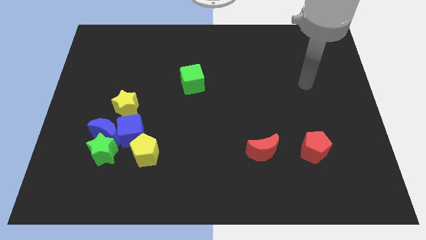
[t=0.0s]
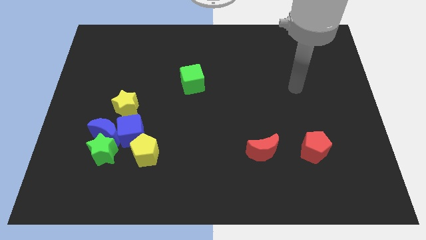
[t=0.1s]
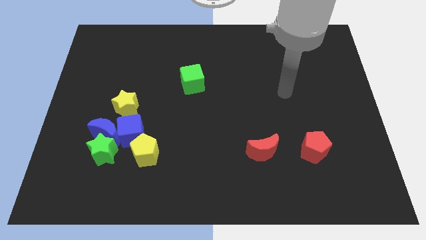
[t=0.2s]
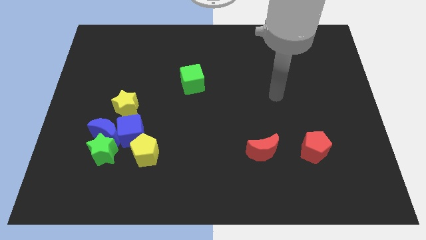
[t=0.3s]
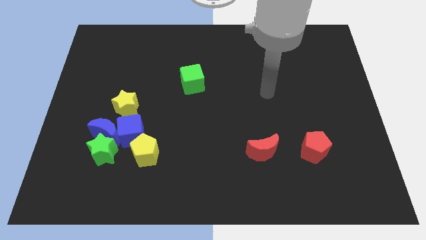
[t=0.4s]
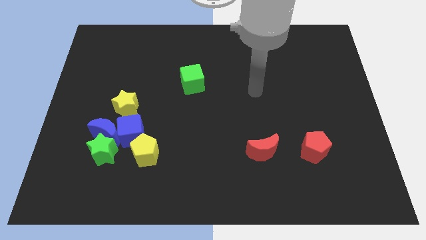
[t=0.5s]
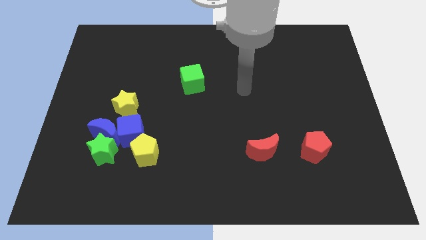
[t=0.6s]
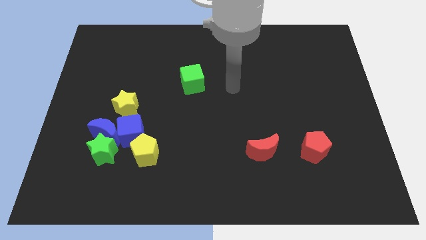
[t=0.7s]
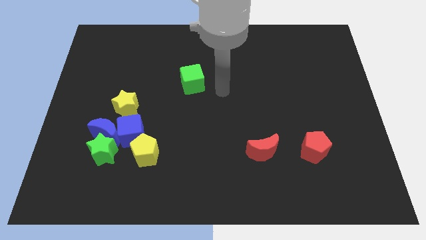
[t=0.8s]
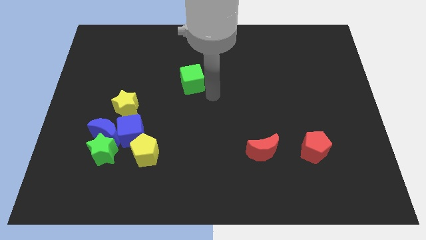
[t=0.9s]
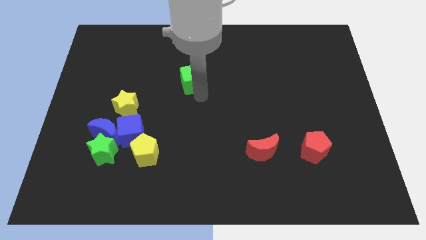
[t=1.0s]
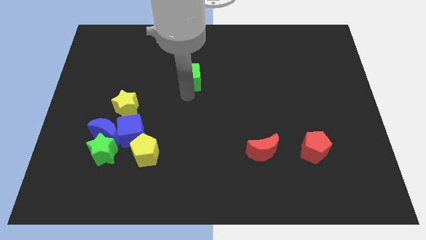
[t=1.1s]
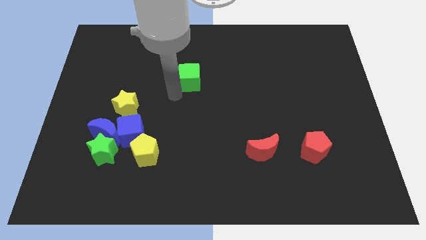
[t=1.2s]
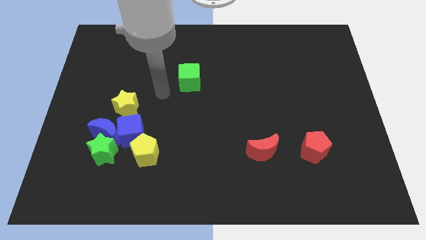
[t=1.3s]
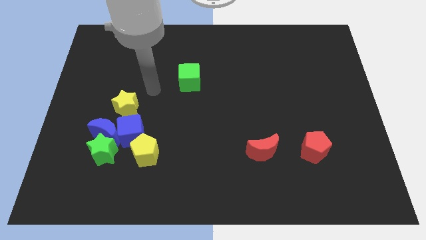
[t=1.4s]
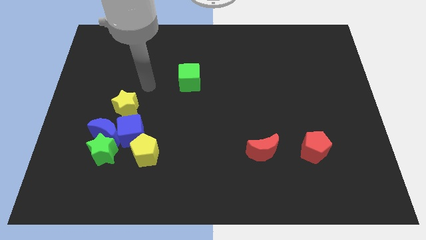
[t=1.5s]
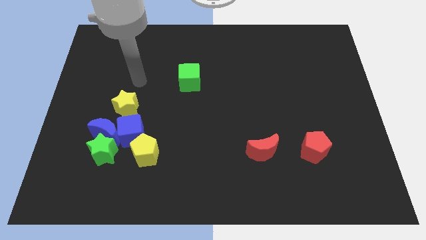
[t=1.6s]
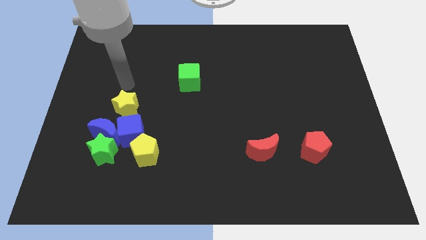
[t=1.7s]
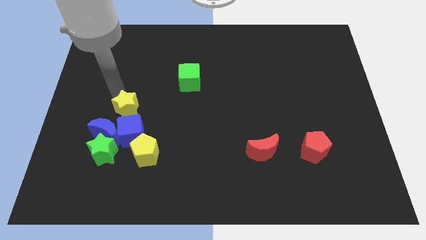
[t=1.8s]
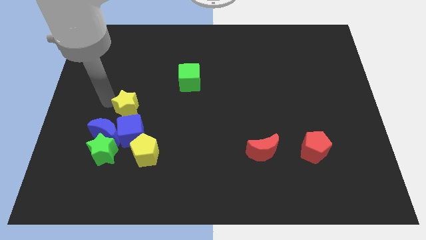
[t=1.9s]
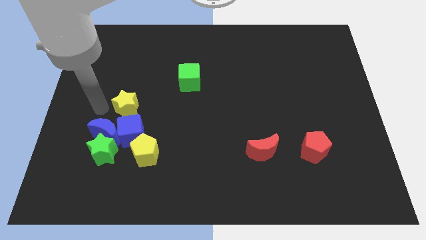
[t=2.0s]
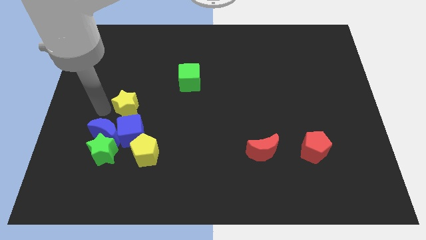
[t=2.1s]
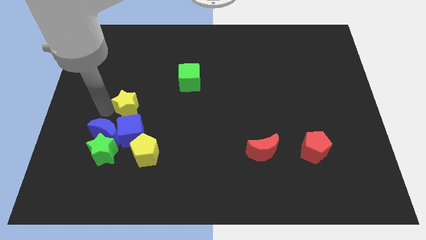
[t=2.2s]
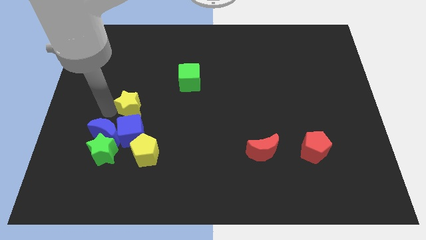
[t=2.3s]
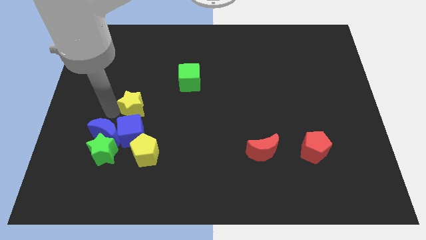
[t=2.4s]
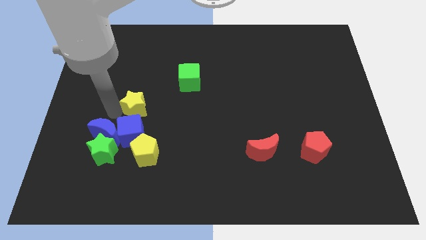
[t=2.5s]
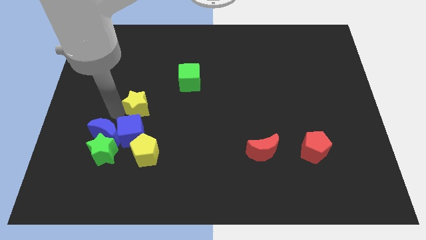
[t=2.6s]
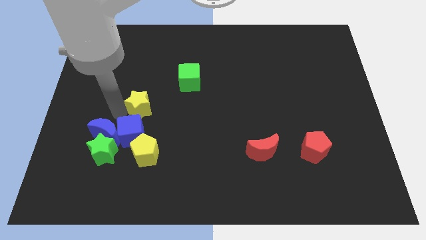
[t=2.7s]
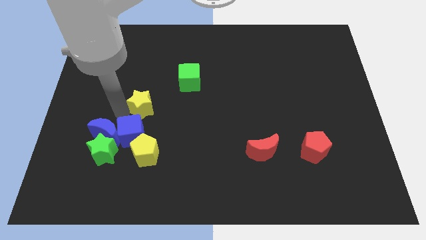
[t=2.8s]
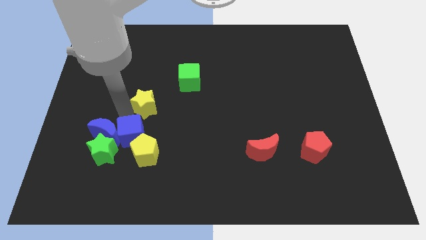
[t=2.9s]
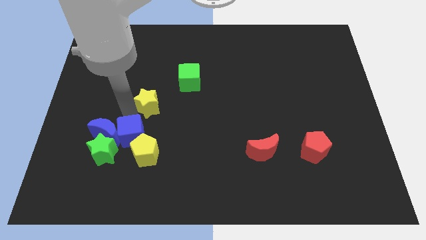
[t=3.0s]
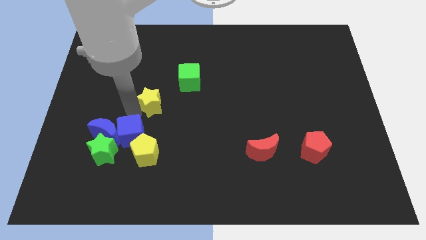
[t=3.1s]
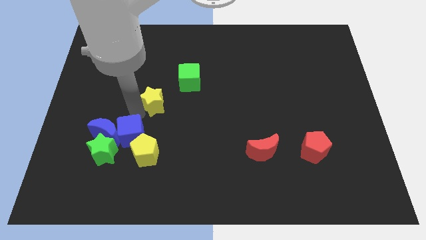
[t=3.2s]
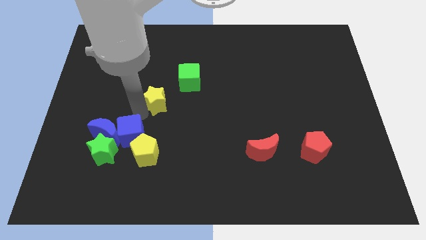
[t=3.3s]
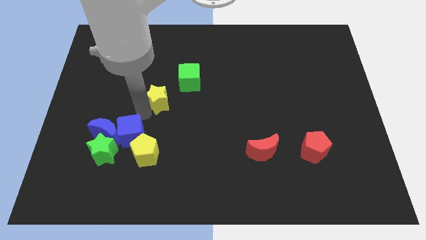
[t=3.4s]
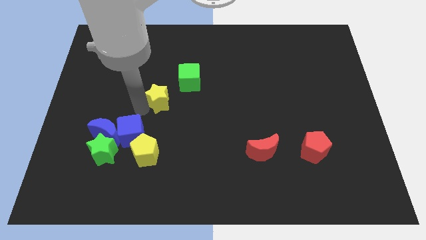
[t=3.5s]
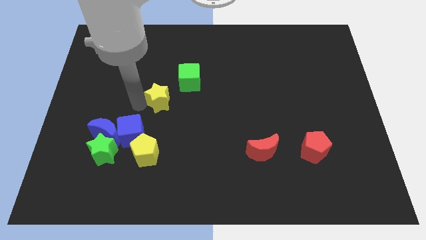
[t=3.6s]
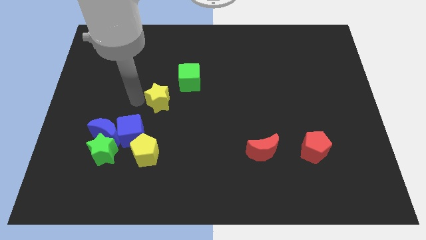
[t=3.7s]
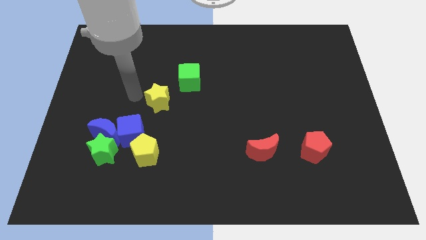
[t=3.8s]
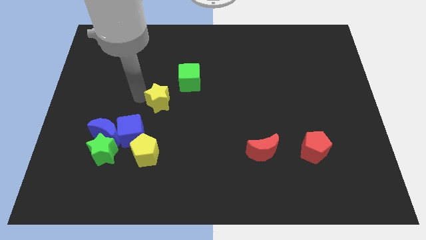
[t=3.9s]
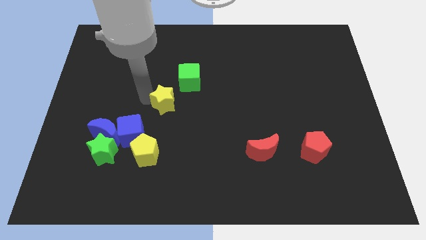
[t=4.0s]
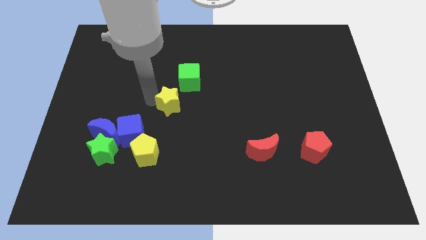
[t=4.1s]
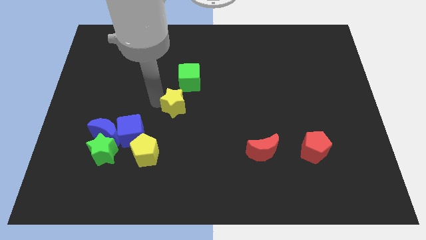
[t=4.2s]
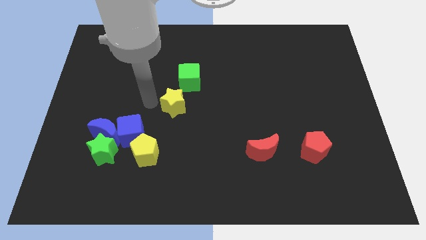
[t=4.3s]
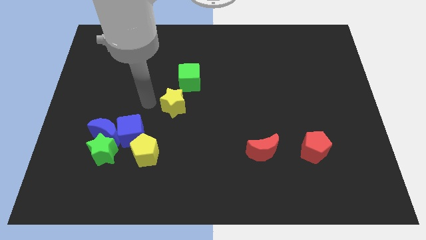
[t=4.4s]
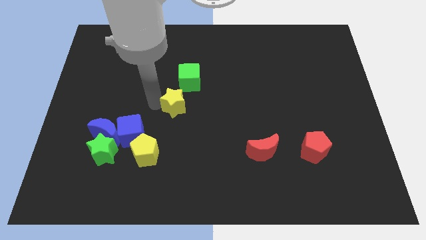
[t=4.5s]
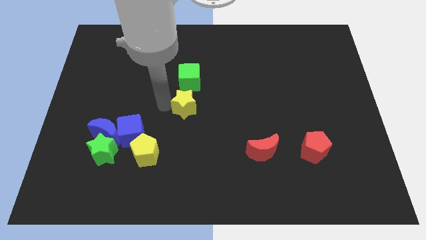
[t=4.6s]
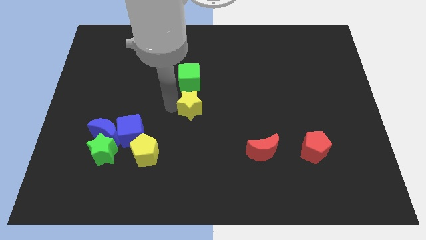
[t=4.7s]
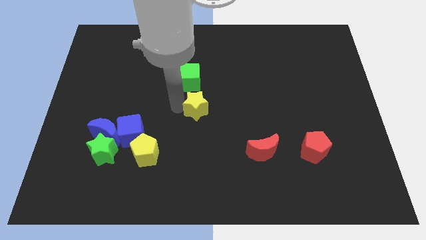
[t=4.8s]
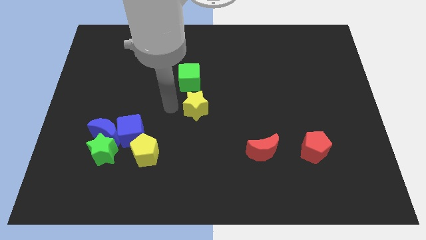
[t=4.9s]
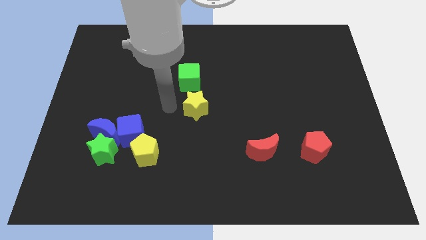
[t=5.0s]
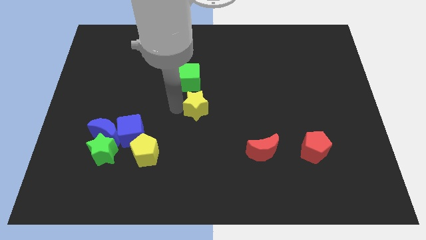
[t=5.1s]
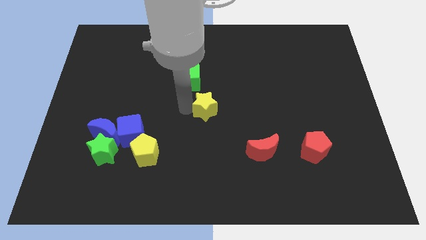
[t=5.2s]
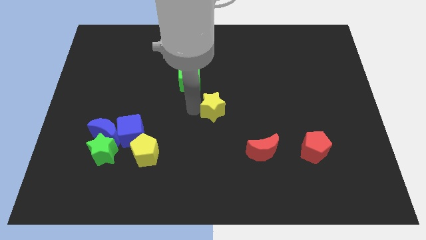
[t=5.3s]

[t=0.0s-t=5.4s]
slide the yellow star to the right

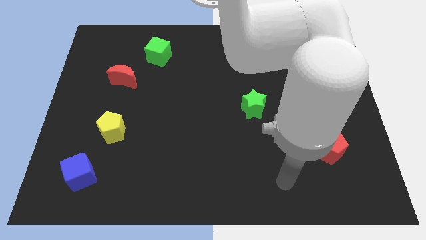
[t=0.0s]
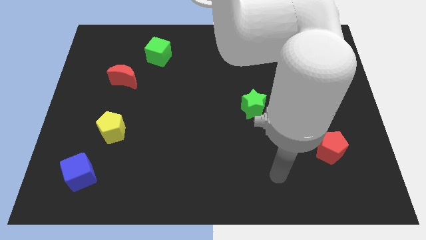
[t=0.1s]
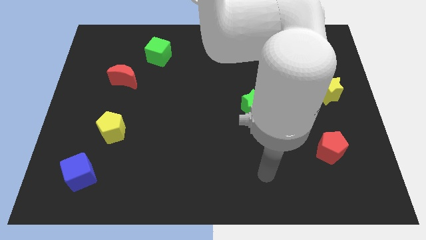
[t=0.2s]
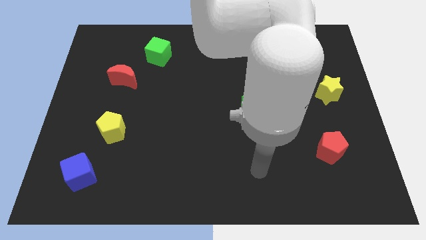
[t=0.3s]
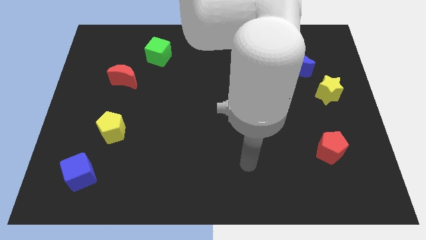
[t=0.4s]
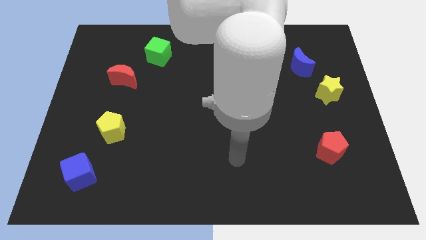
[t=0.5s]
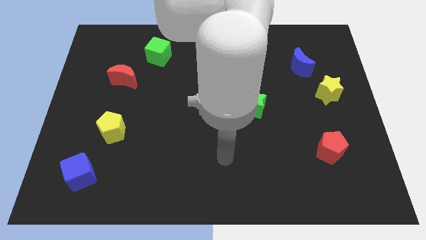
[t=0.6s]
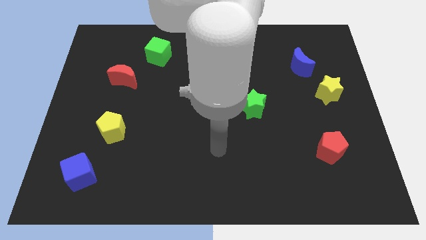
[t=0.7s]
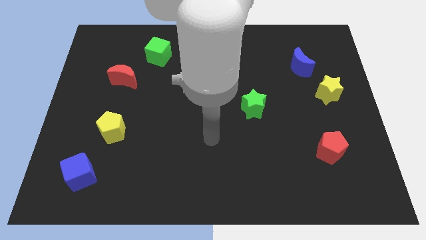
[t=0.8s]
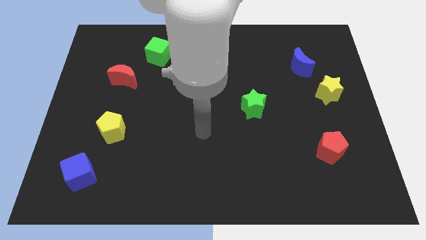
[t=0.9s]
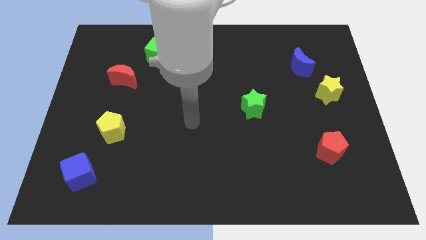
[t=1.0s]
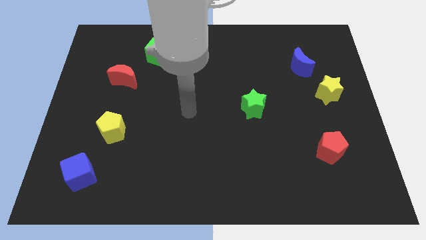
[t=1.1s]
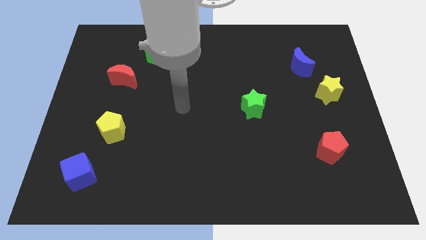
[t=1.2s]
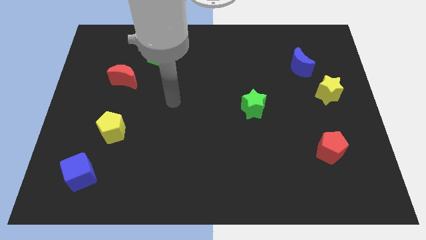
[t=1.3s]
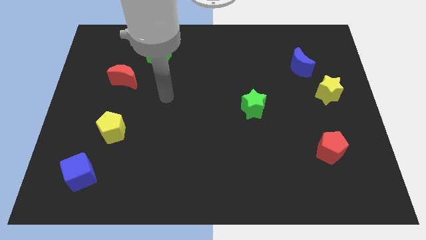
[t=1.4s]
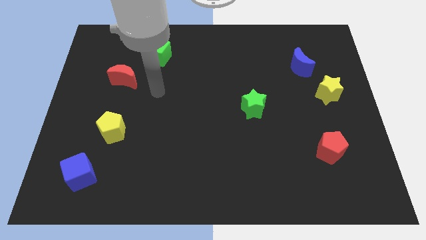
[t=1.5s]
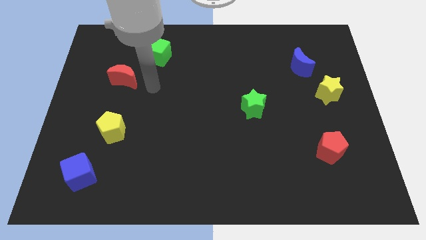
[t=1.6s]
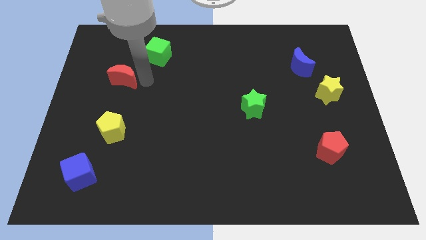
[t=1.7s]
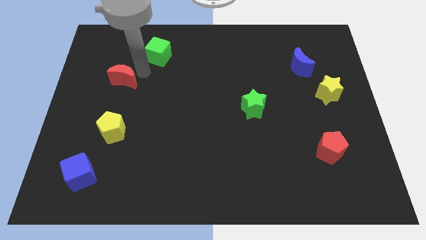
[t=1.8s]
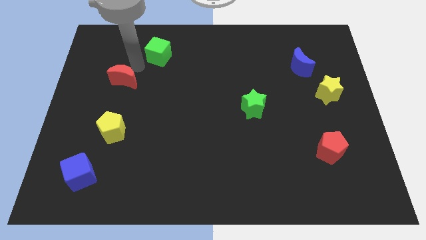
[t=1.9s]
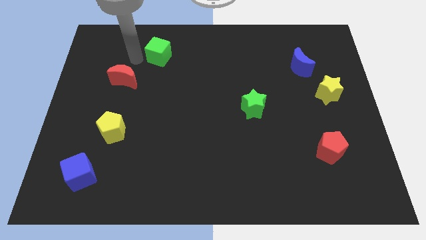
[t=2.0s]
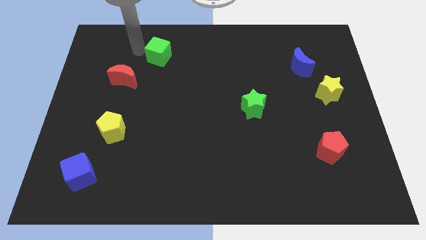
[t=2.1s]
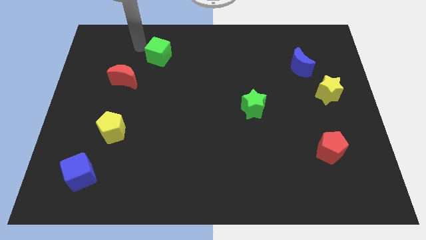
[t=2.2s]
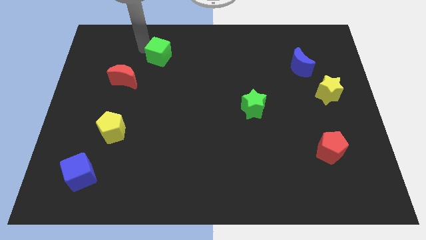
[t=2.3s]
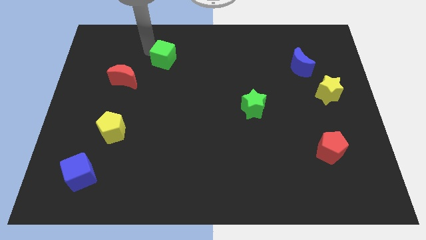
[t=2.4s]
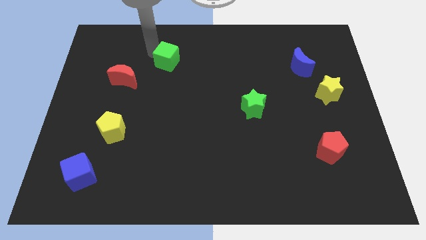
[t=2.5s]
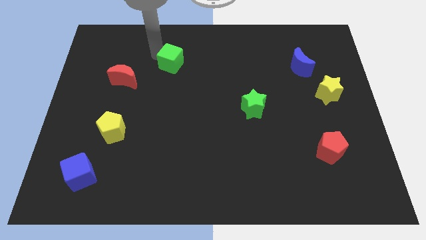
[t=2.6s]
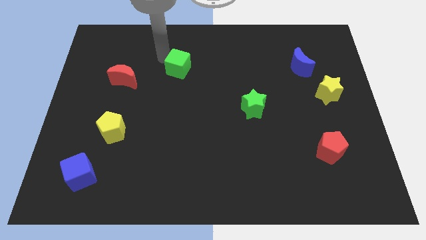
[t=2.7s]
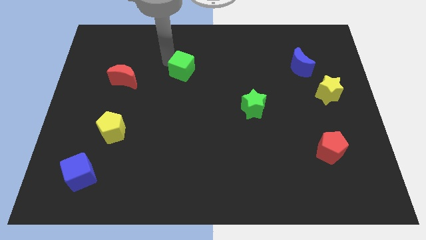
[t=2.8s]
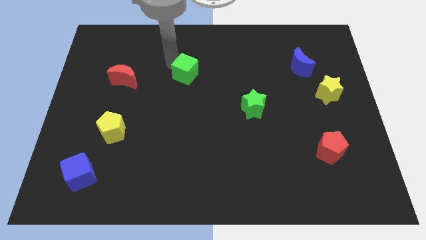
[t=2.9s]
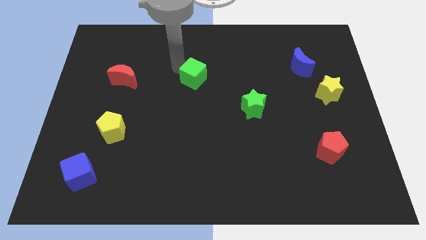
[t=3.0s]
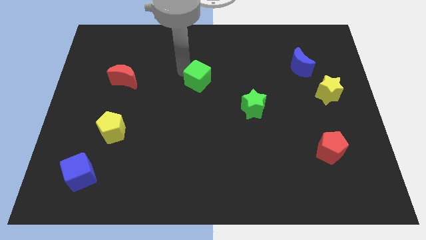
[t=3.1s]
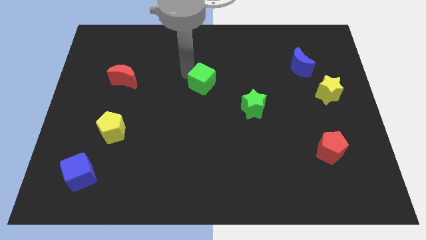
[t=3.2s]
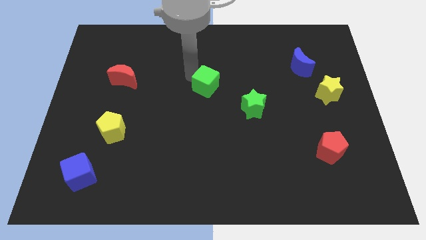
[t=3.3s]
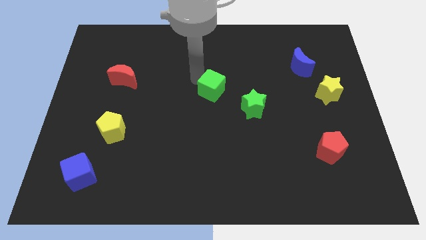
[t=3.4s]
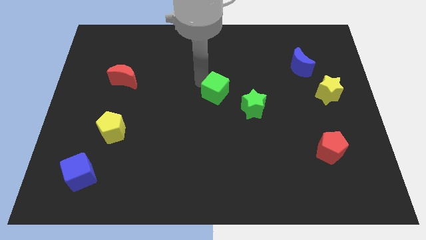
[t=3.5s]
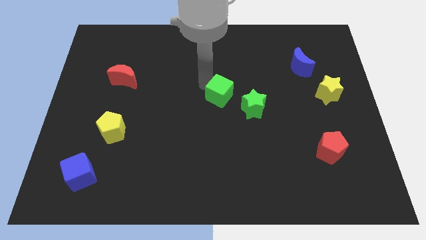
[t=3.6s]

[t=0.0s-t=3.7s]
push the green cube down and then to the right
